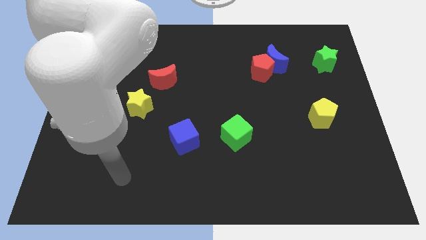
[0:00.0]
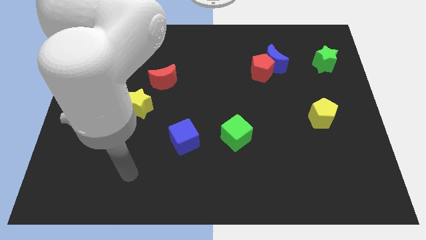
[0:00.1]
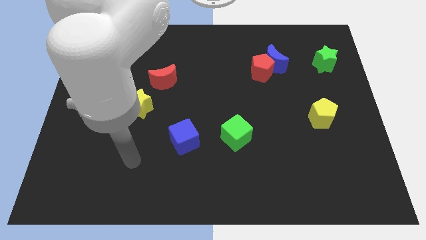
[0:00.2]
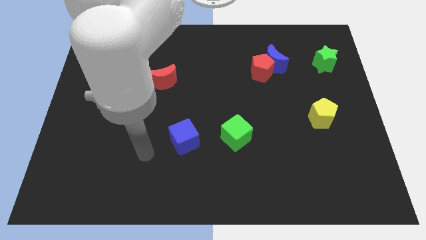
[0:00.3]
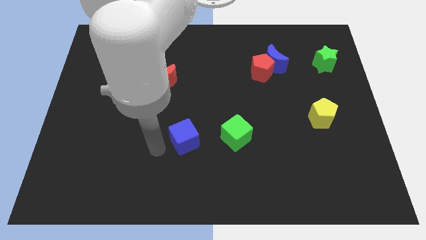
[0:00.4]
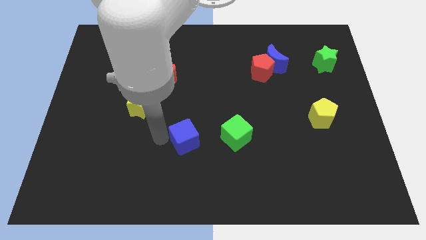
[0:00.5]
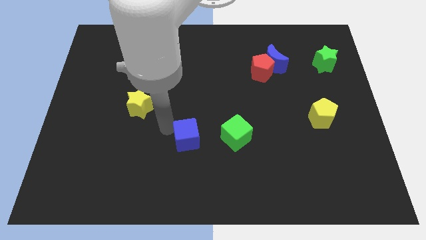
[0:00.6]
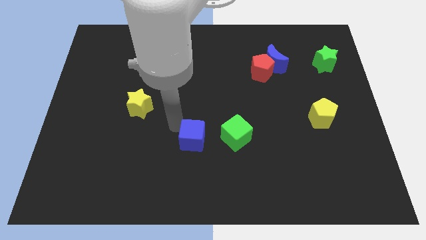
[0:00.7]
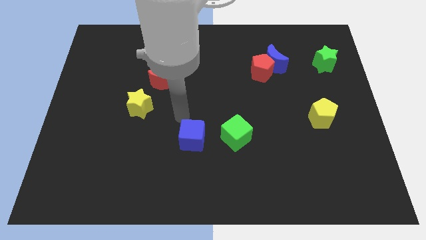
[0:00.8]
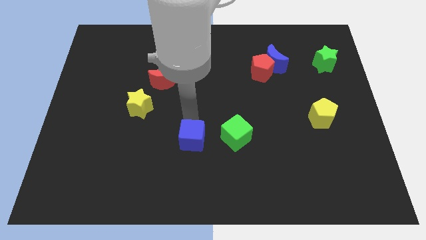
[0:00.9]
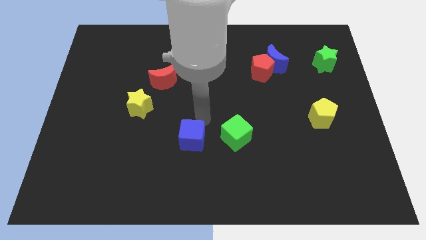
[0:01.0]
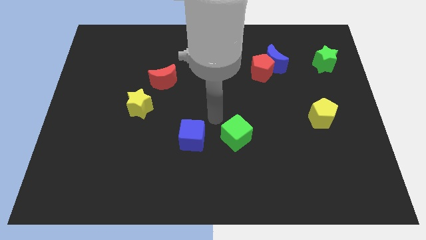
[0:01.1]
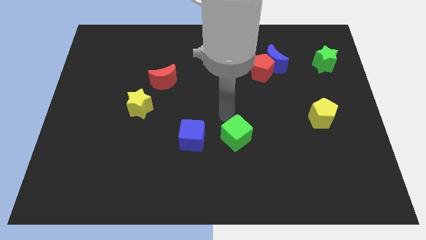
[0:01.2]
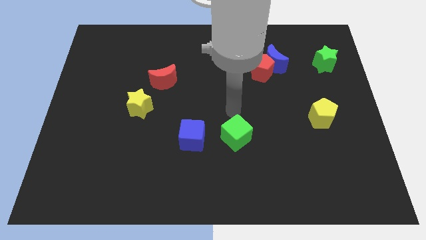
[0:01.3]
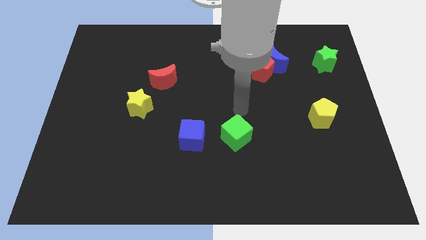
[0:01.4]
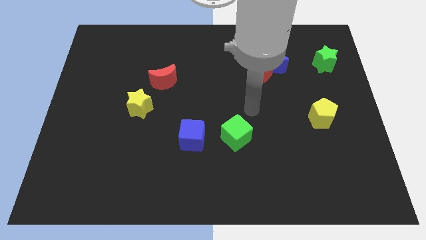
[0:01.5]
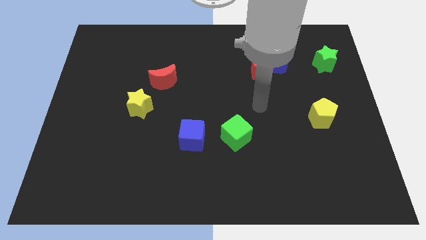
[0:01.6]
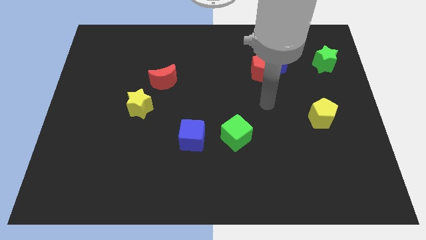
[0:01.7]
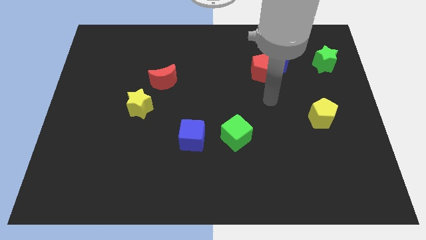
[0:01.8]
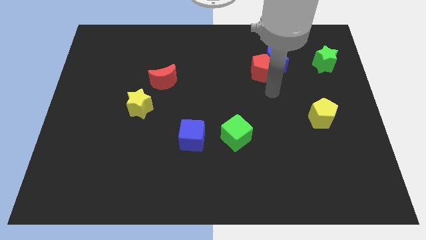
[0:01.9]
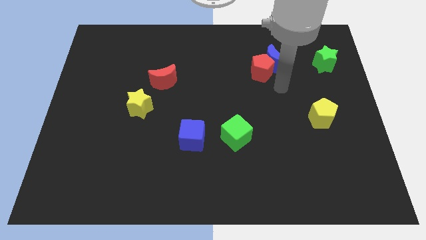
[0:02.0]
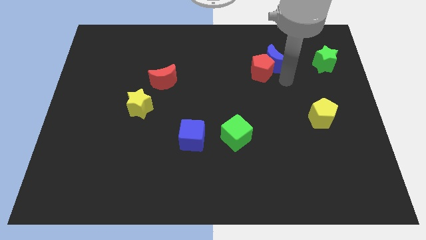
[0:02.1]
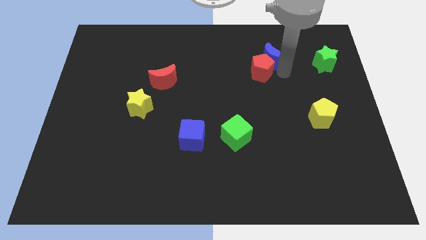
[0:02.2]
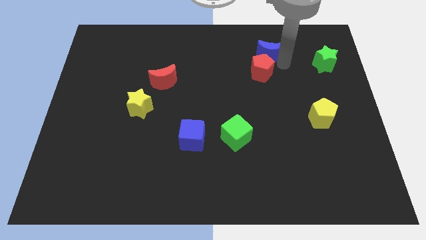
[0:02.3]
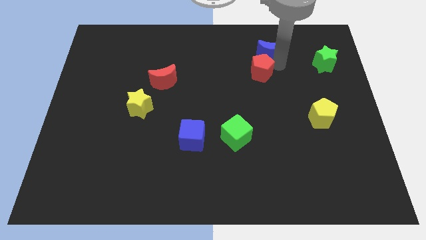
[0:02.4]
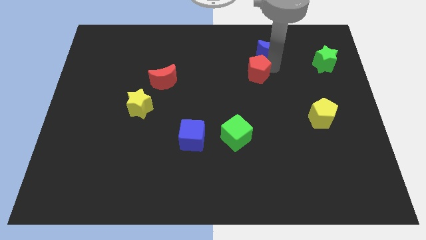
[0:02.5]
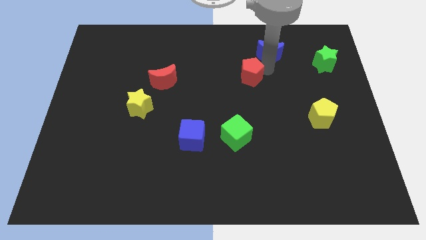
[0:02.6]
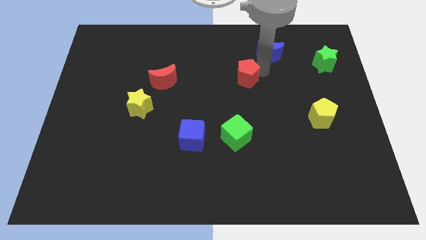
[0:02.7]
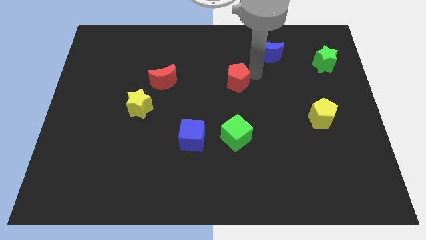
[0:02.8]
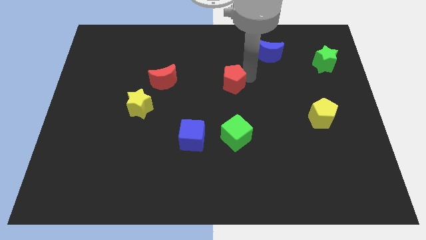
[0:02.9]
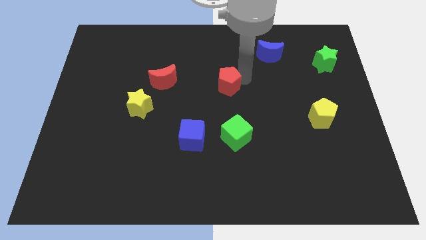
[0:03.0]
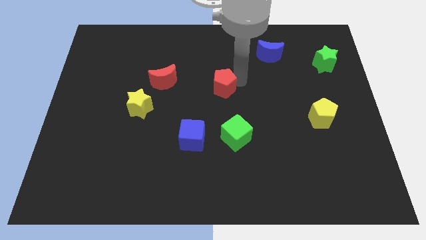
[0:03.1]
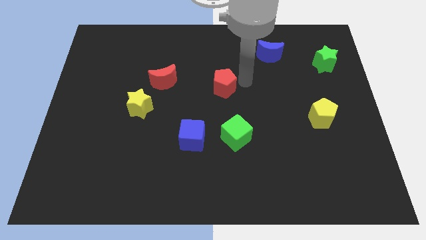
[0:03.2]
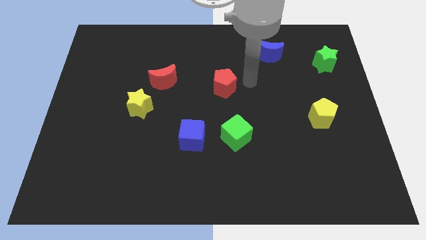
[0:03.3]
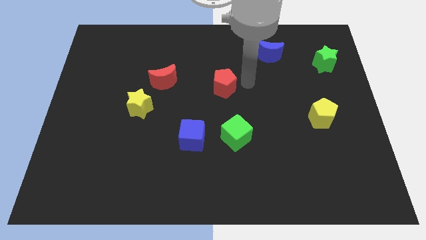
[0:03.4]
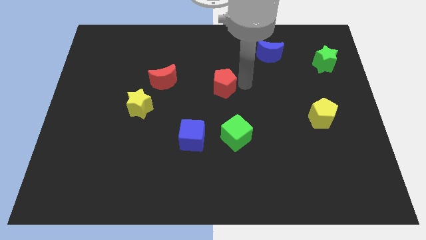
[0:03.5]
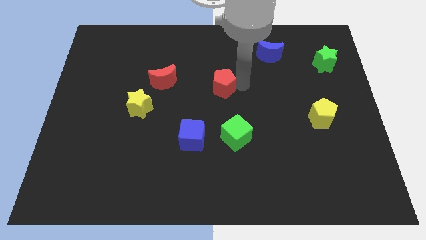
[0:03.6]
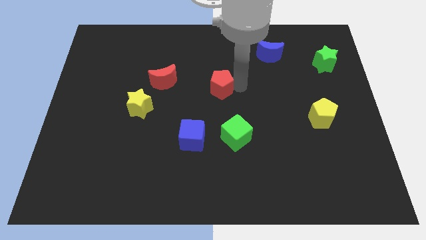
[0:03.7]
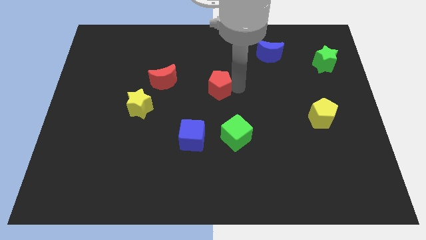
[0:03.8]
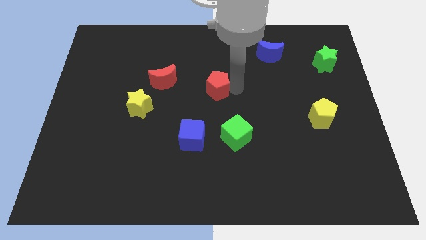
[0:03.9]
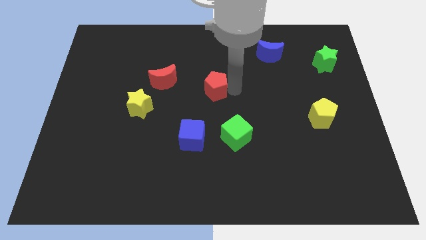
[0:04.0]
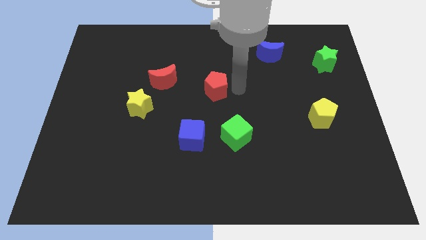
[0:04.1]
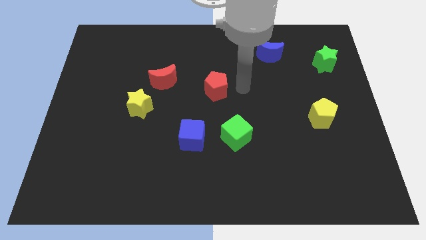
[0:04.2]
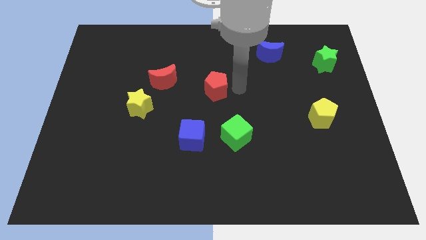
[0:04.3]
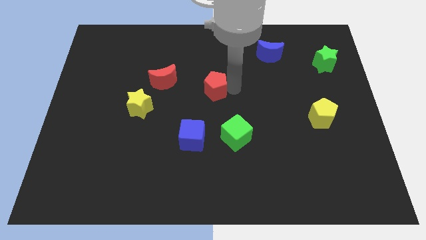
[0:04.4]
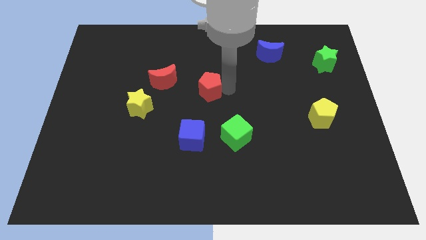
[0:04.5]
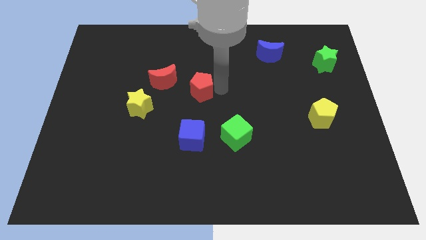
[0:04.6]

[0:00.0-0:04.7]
move the red pentagon to the bottom right of the red moon

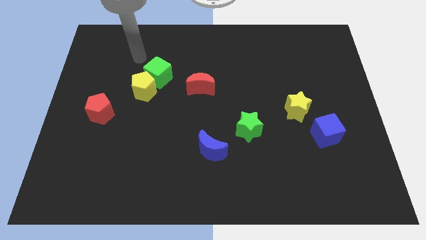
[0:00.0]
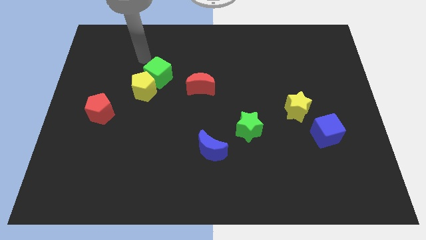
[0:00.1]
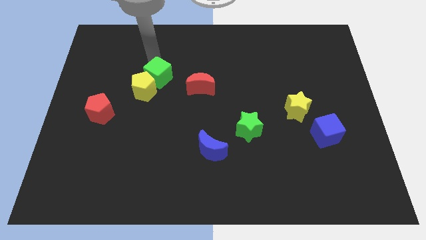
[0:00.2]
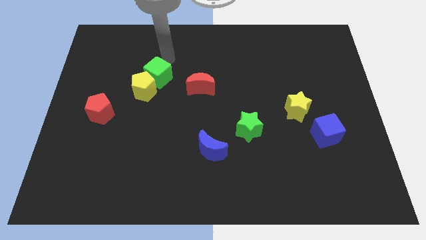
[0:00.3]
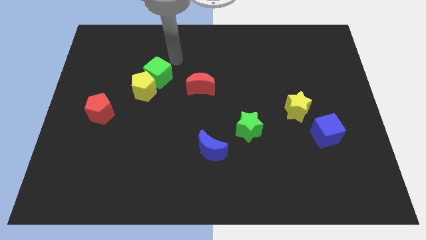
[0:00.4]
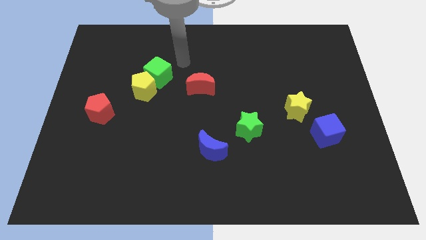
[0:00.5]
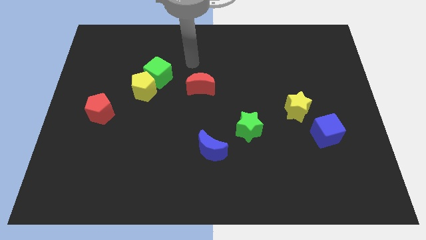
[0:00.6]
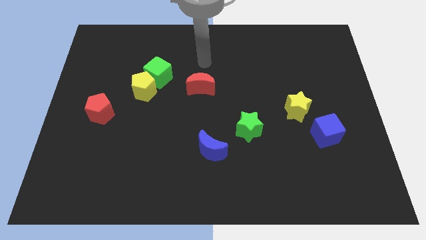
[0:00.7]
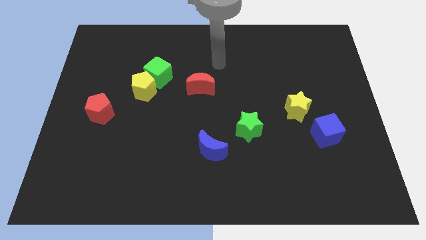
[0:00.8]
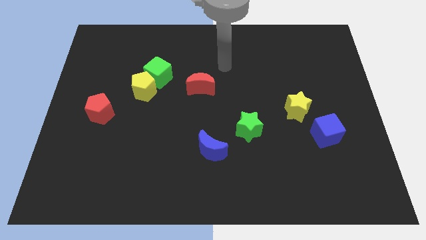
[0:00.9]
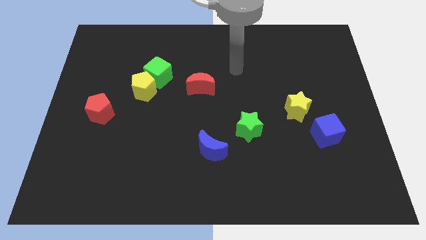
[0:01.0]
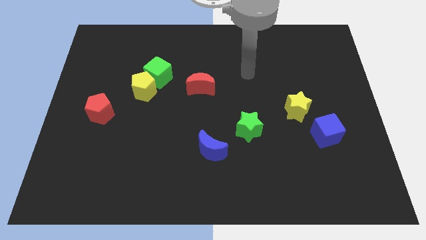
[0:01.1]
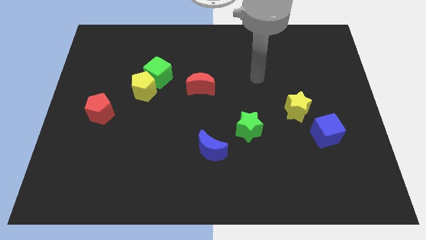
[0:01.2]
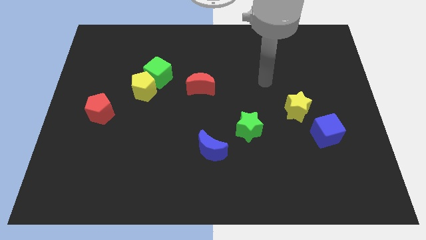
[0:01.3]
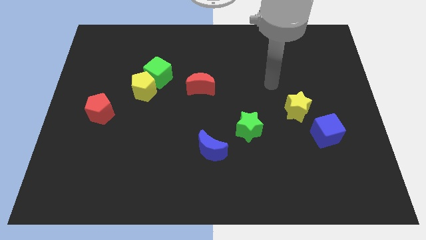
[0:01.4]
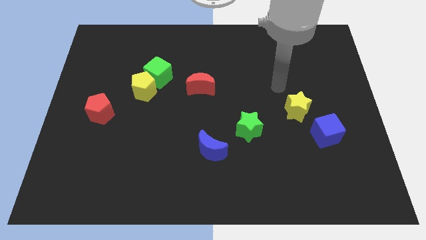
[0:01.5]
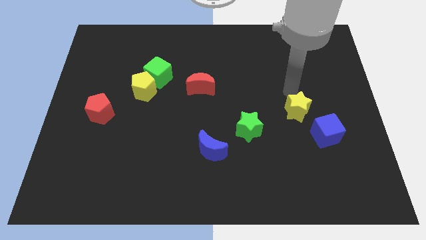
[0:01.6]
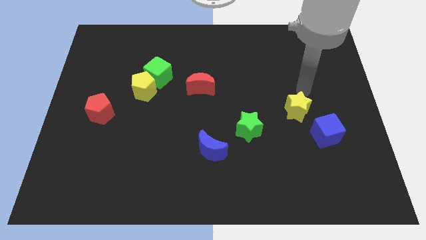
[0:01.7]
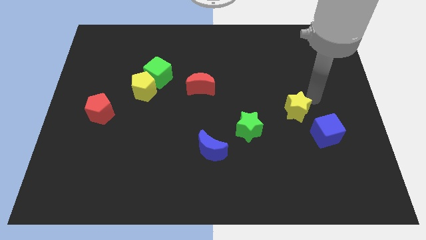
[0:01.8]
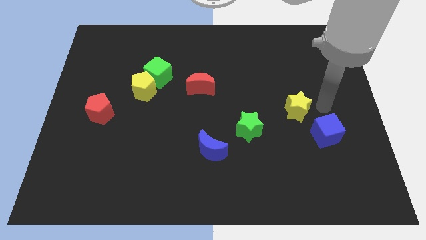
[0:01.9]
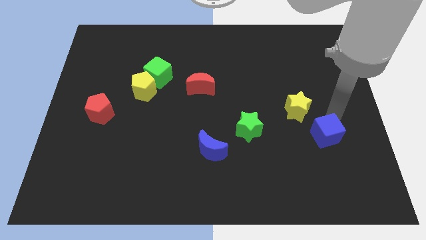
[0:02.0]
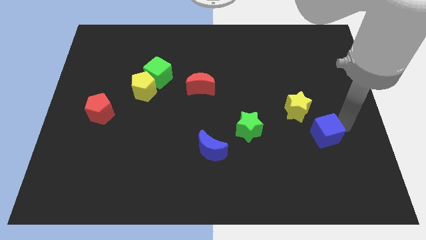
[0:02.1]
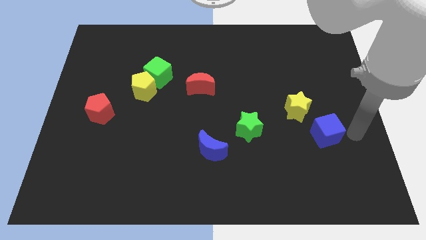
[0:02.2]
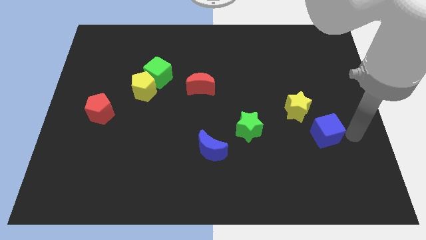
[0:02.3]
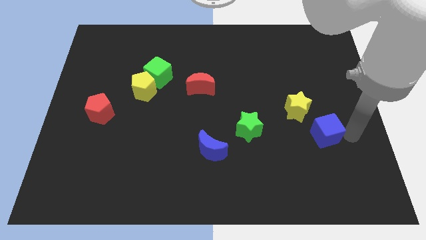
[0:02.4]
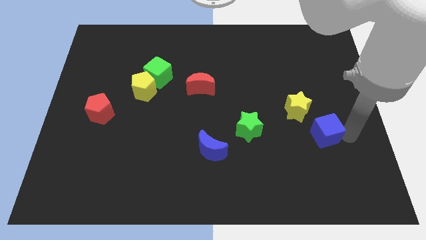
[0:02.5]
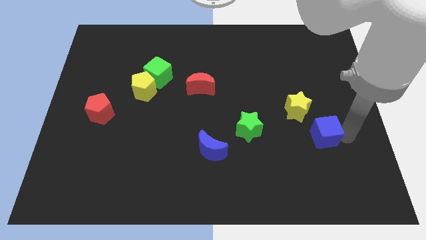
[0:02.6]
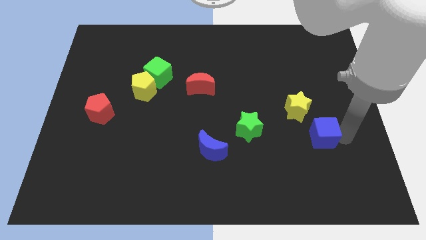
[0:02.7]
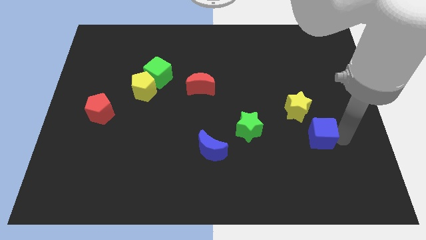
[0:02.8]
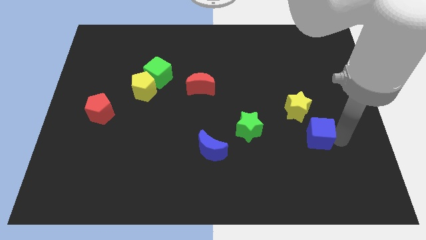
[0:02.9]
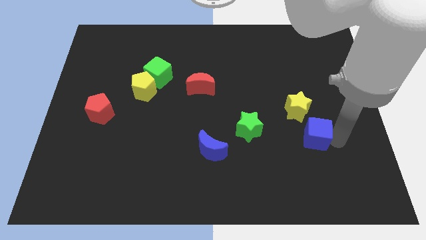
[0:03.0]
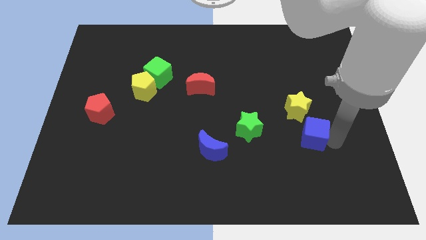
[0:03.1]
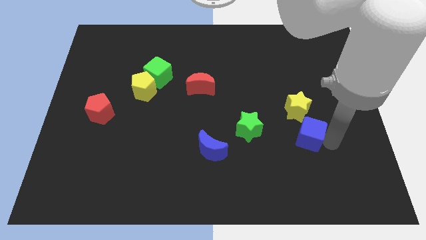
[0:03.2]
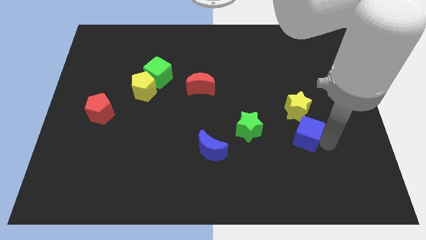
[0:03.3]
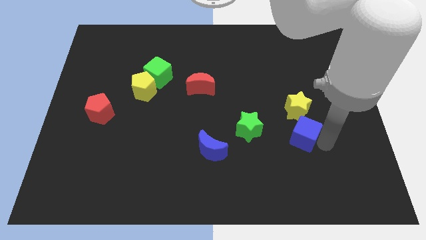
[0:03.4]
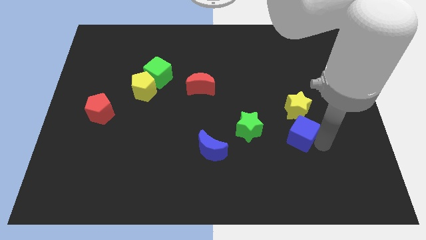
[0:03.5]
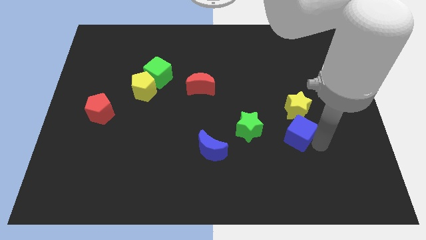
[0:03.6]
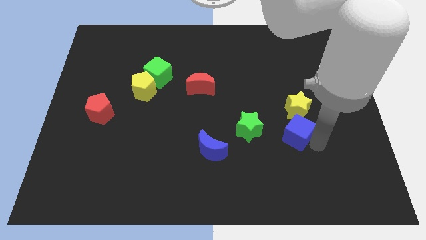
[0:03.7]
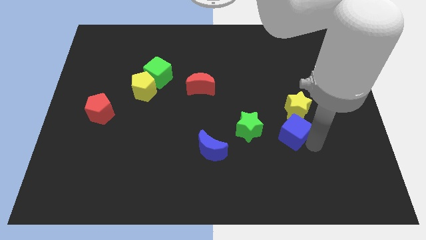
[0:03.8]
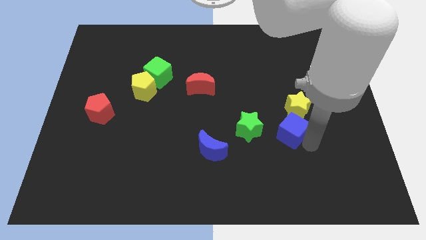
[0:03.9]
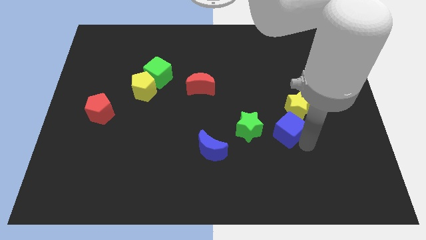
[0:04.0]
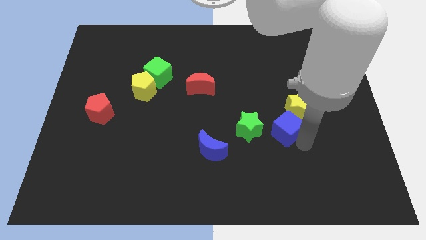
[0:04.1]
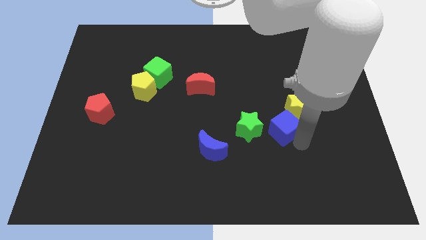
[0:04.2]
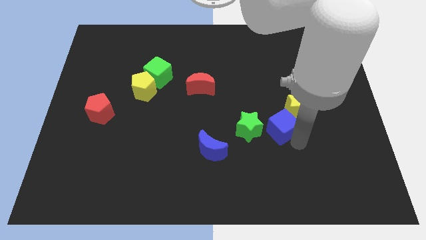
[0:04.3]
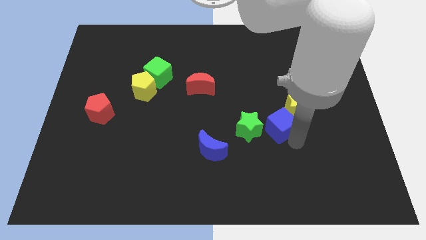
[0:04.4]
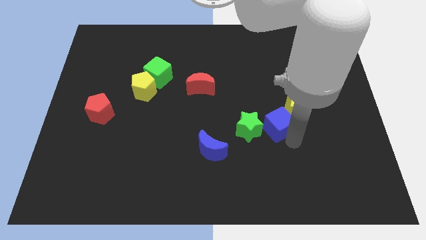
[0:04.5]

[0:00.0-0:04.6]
slide the blue cube to the left side of the yellow star
